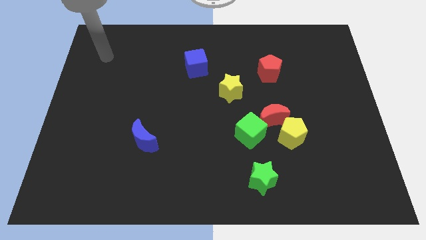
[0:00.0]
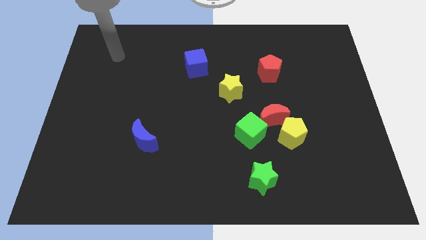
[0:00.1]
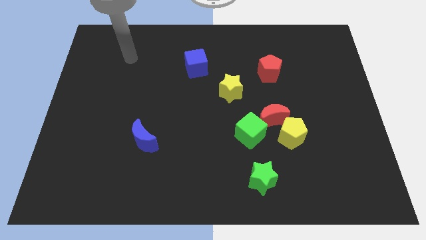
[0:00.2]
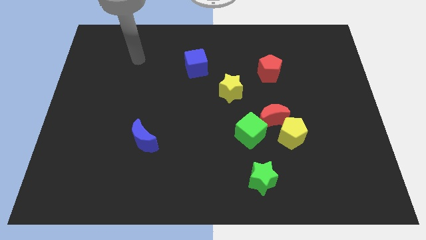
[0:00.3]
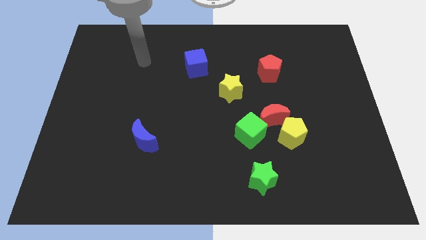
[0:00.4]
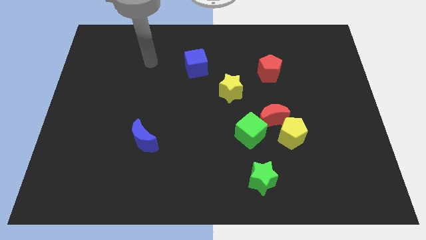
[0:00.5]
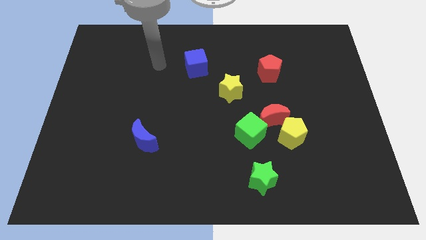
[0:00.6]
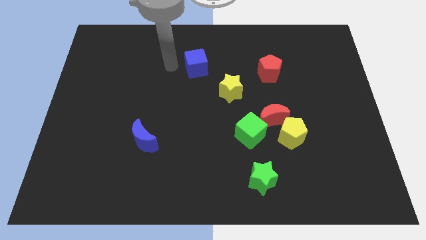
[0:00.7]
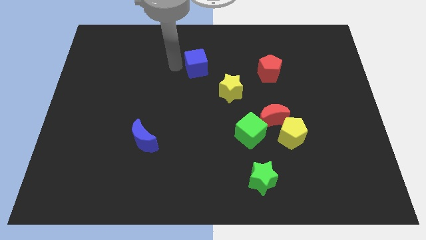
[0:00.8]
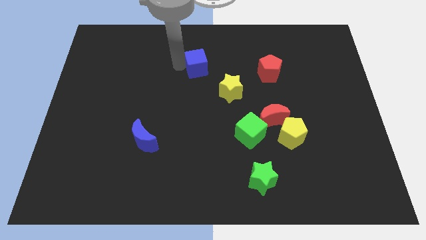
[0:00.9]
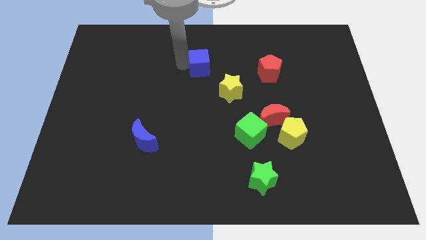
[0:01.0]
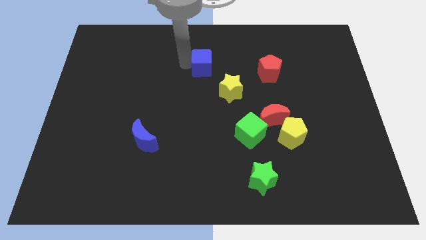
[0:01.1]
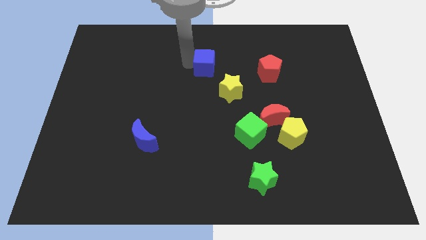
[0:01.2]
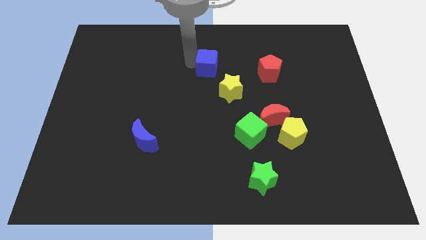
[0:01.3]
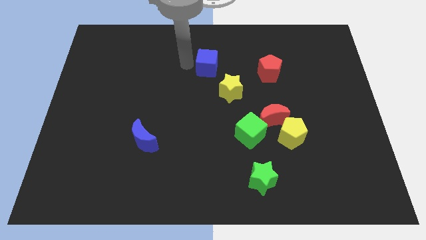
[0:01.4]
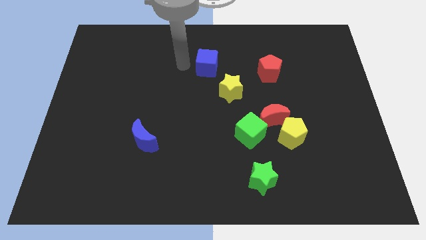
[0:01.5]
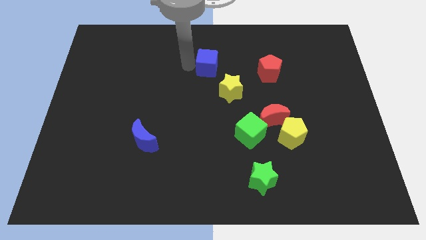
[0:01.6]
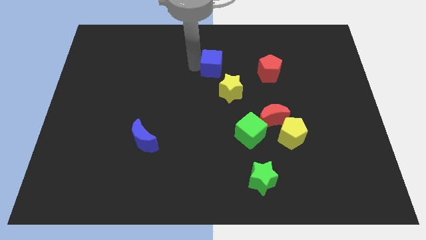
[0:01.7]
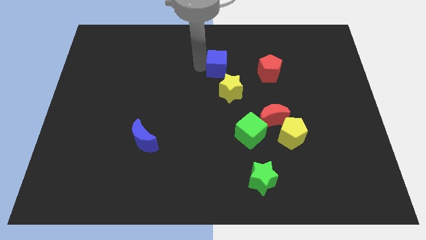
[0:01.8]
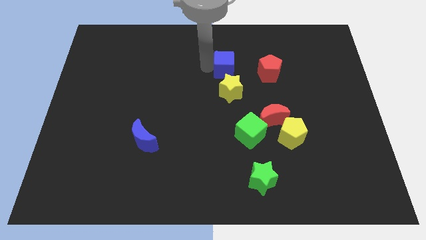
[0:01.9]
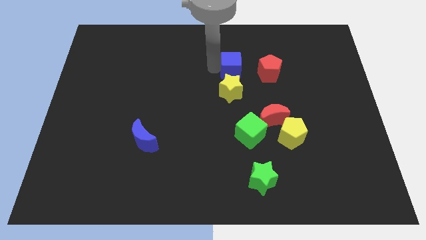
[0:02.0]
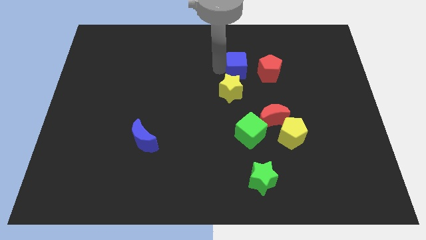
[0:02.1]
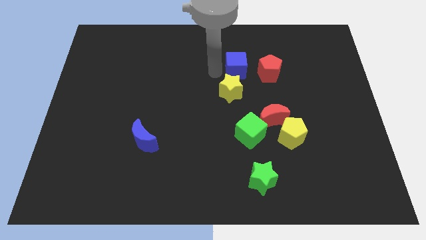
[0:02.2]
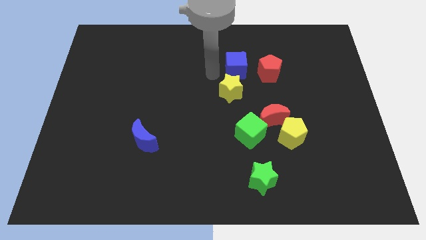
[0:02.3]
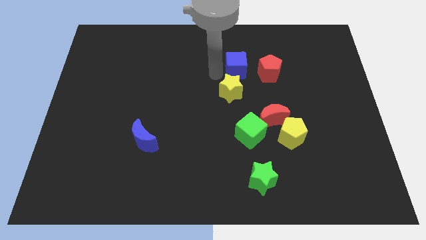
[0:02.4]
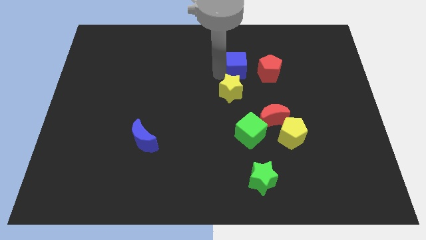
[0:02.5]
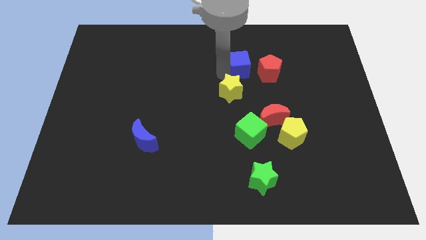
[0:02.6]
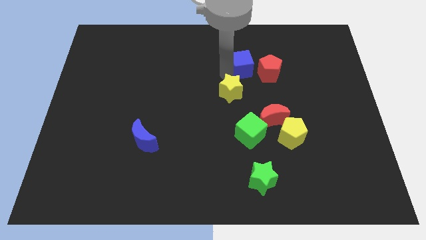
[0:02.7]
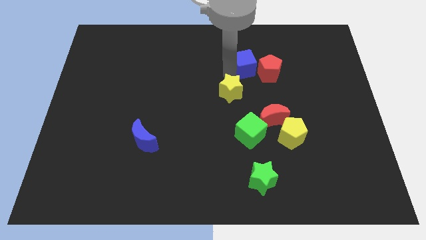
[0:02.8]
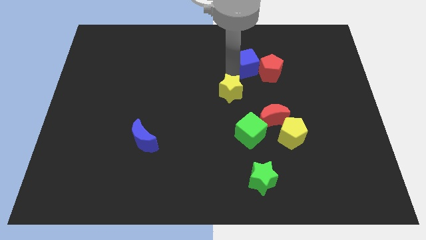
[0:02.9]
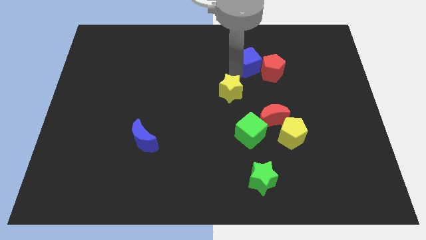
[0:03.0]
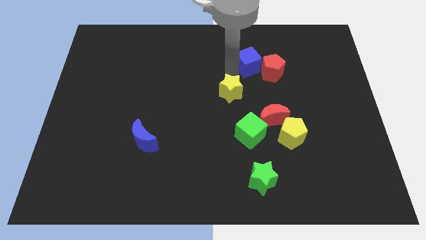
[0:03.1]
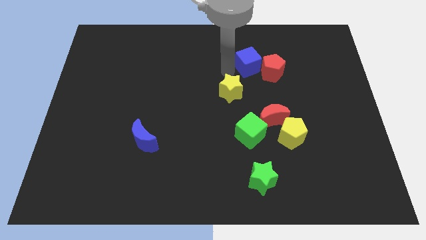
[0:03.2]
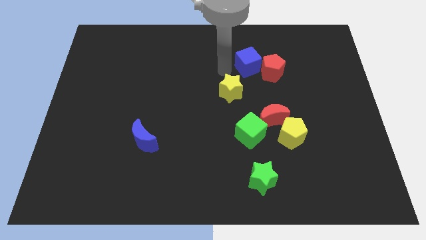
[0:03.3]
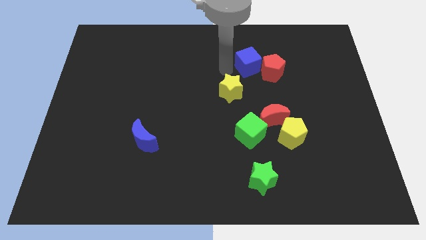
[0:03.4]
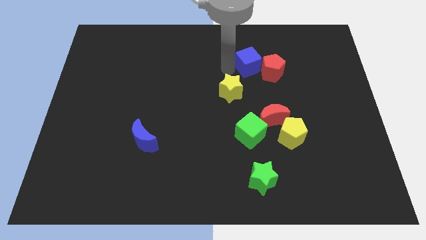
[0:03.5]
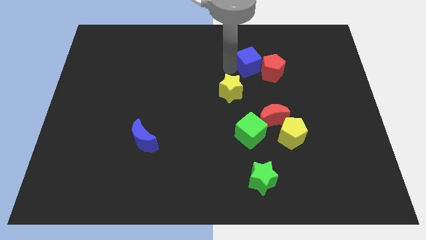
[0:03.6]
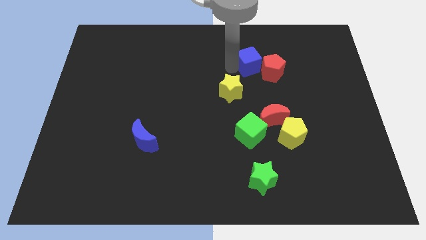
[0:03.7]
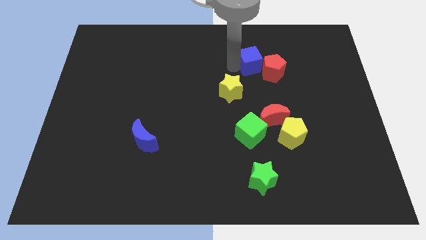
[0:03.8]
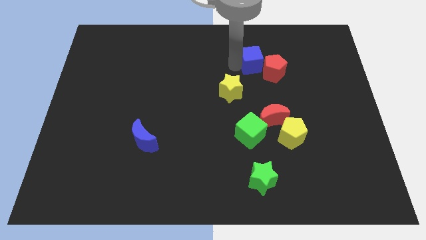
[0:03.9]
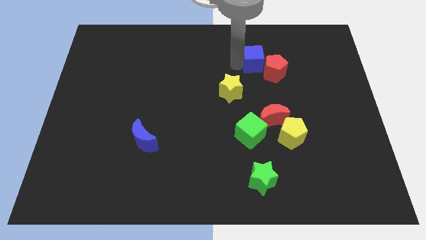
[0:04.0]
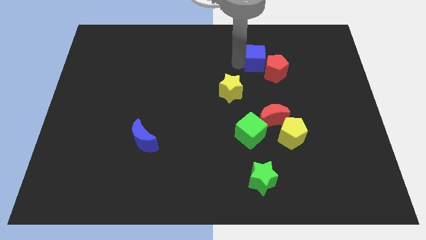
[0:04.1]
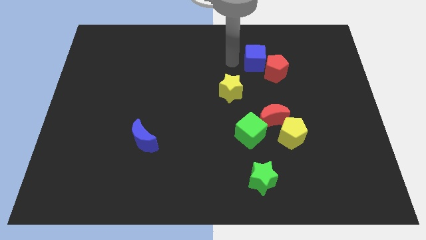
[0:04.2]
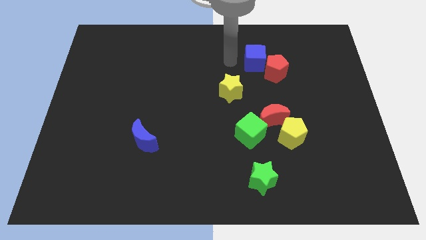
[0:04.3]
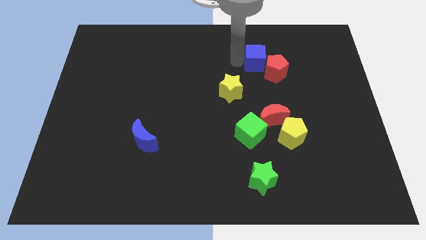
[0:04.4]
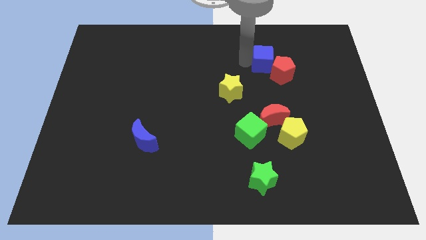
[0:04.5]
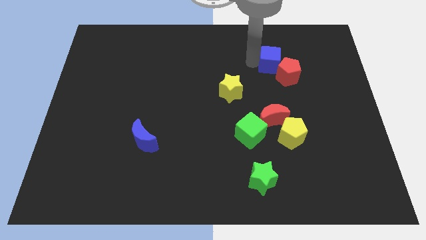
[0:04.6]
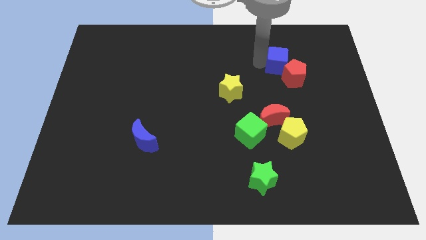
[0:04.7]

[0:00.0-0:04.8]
push the blue cube right

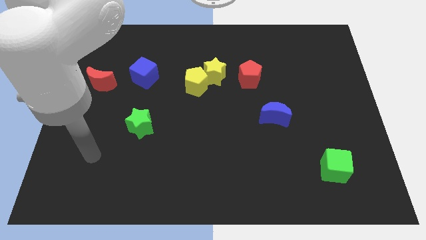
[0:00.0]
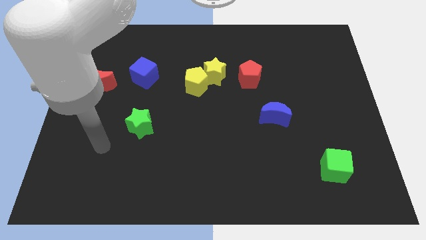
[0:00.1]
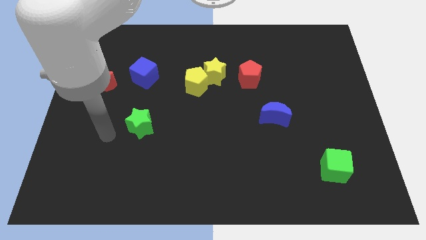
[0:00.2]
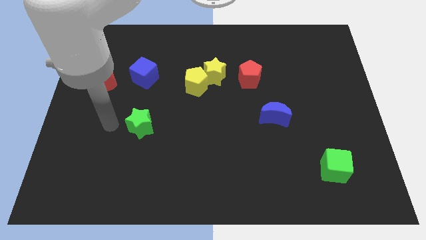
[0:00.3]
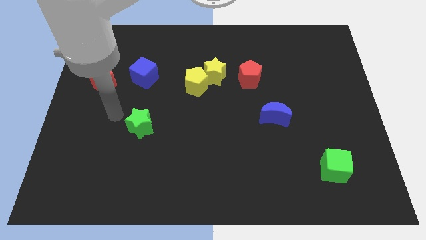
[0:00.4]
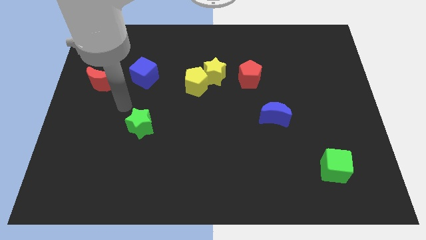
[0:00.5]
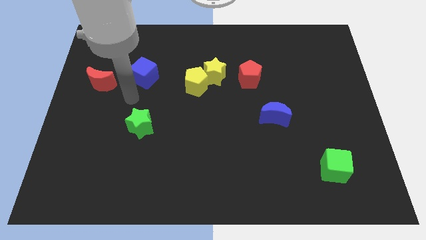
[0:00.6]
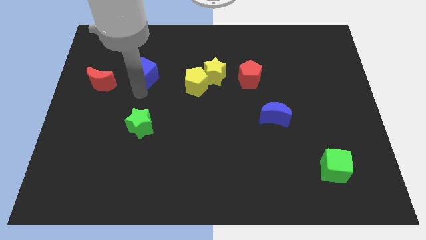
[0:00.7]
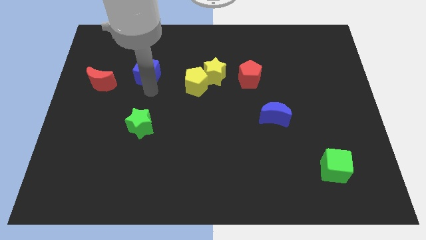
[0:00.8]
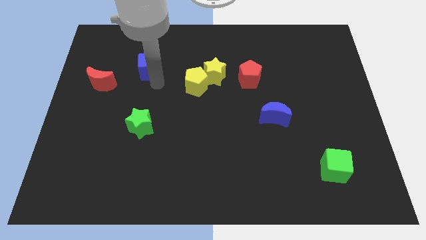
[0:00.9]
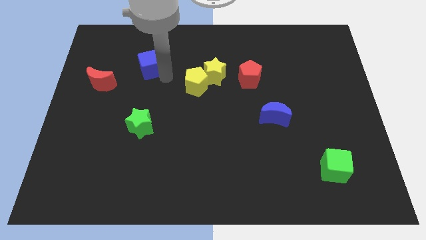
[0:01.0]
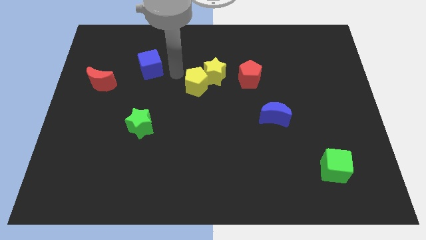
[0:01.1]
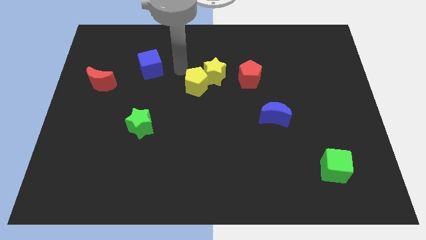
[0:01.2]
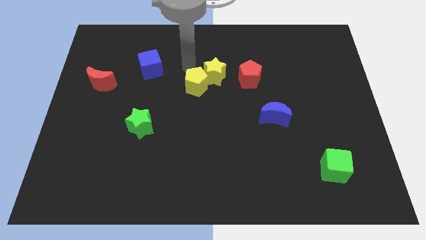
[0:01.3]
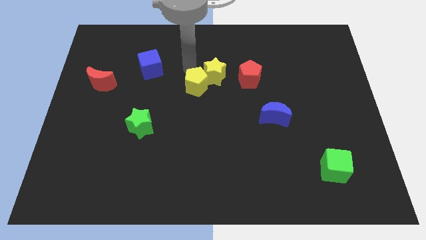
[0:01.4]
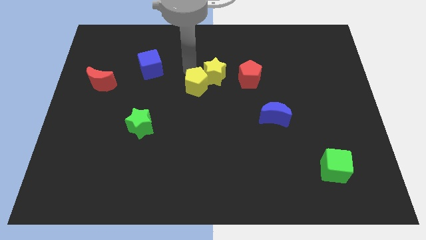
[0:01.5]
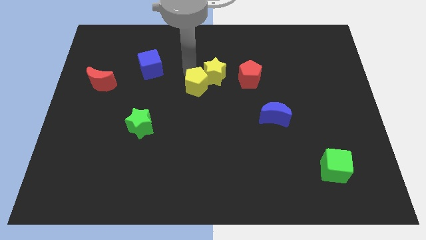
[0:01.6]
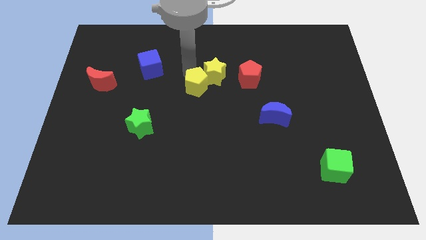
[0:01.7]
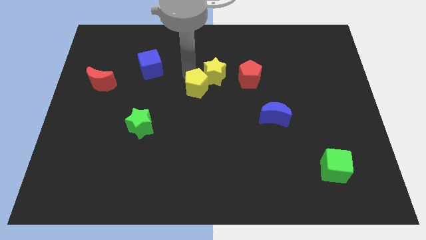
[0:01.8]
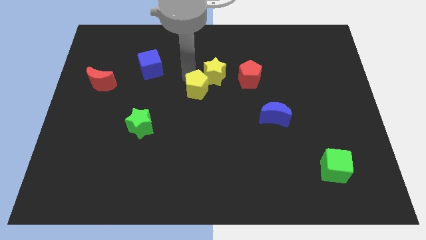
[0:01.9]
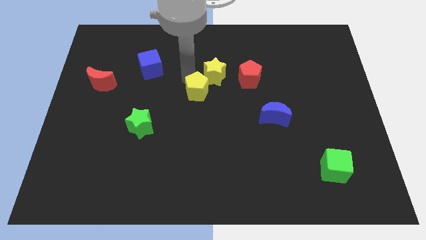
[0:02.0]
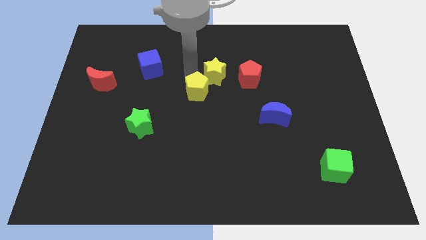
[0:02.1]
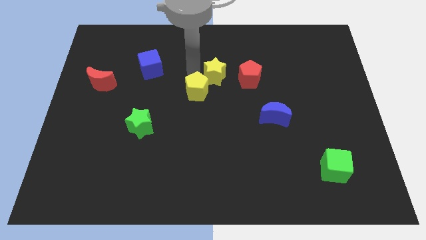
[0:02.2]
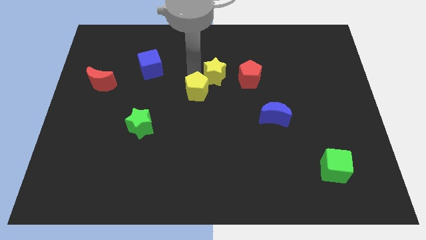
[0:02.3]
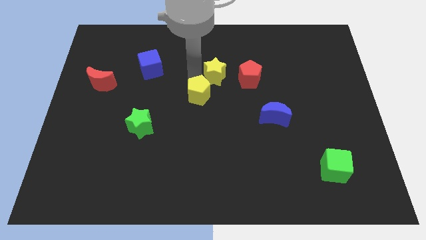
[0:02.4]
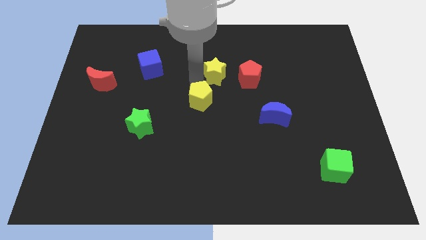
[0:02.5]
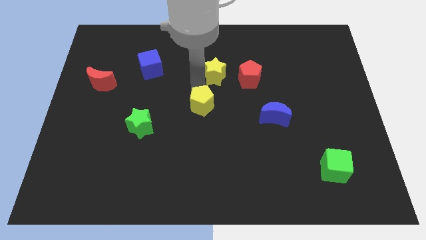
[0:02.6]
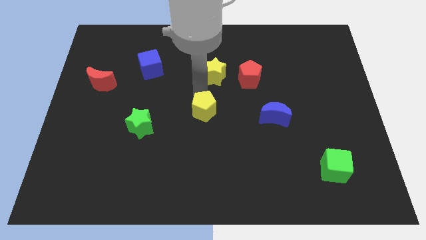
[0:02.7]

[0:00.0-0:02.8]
slightly slide the yellow pentagon down
